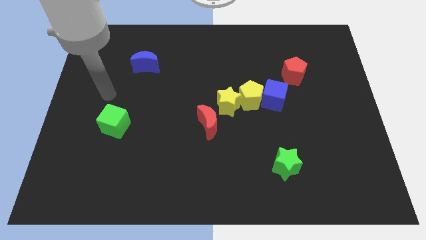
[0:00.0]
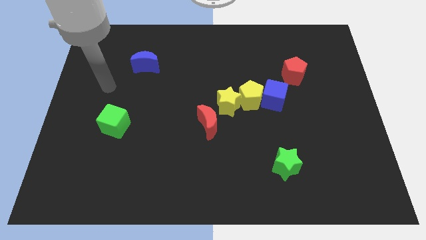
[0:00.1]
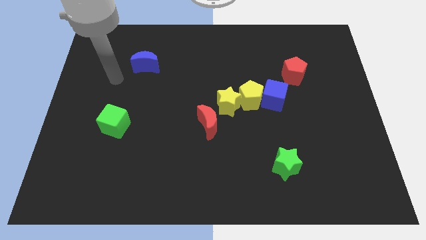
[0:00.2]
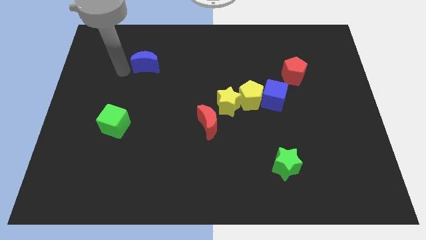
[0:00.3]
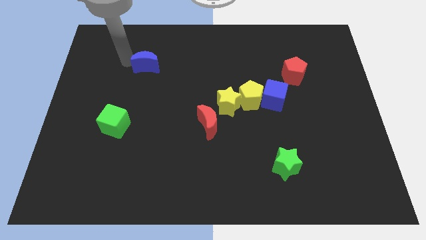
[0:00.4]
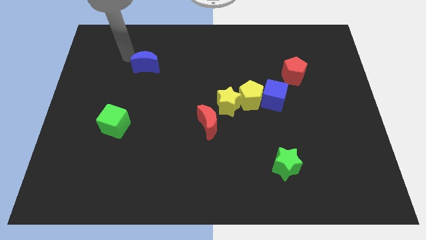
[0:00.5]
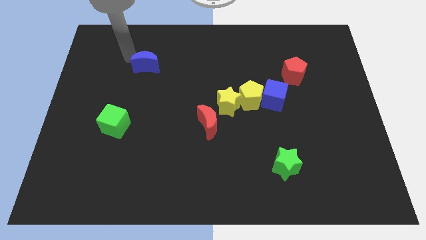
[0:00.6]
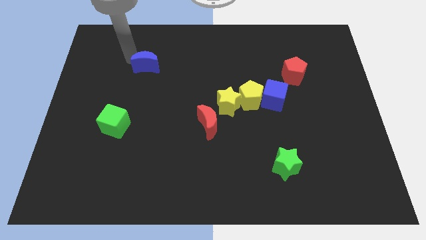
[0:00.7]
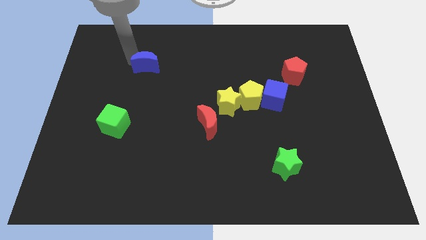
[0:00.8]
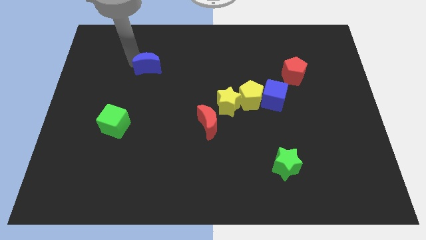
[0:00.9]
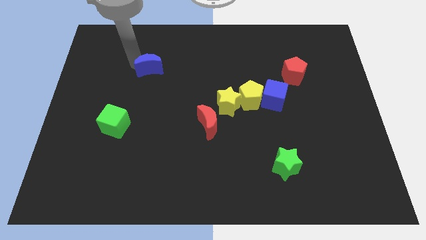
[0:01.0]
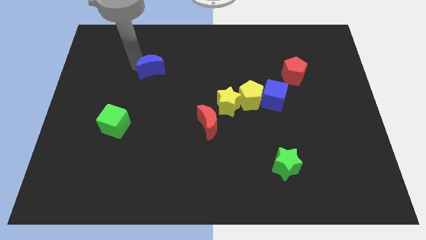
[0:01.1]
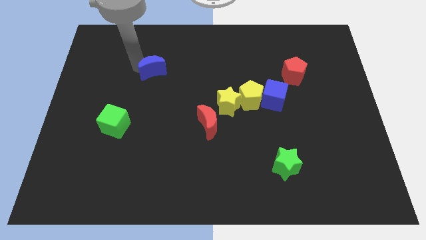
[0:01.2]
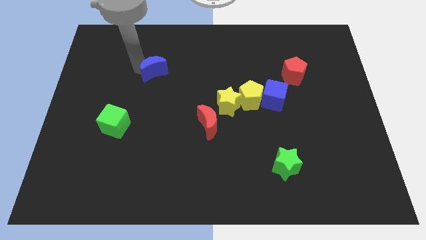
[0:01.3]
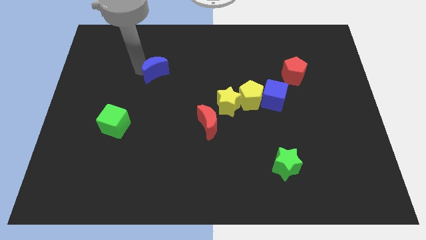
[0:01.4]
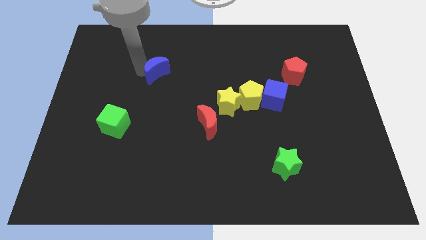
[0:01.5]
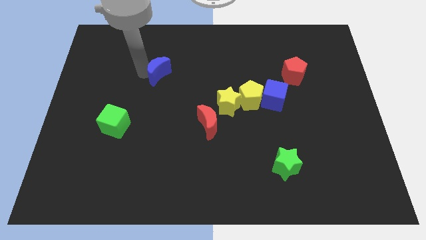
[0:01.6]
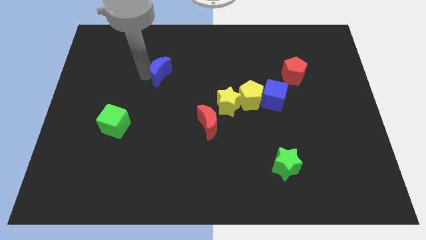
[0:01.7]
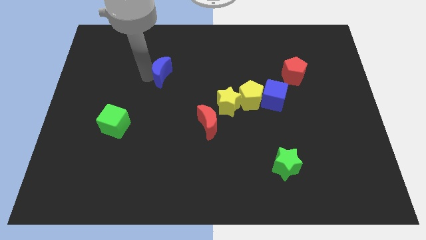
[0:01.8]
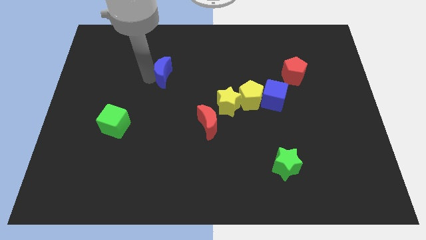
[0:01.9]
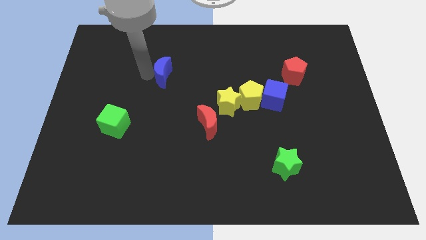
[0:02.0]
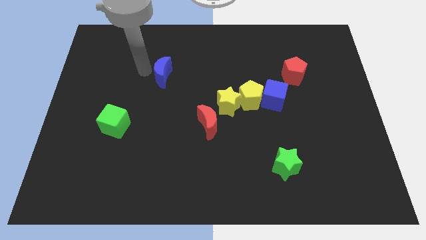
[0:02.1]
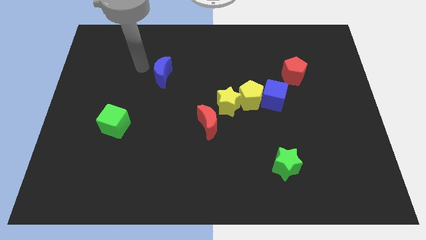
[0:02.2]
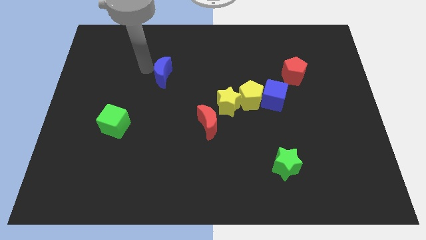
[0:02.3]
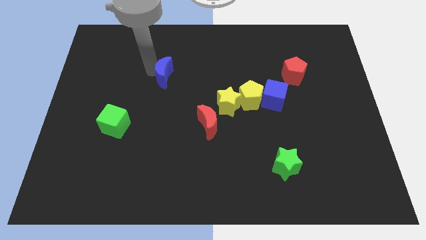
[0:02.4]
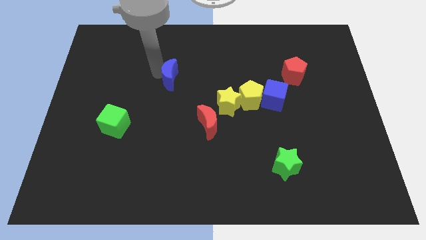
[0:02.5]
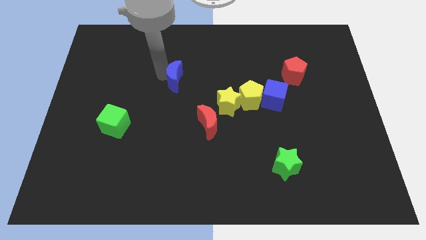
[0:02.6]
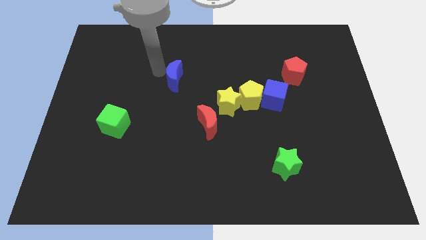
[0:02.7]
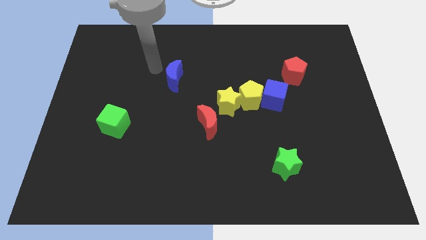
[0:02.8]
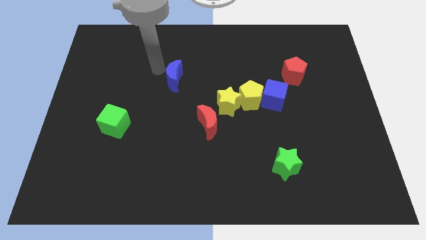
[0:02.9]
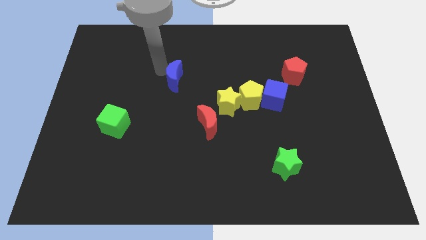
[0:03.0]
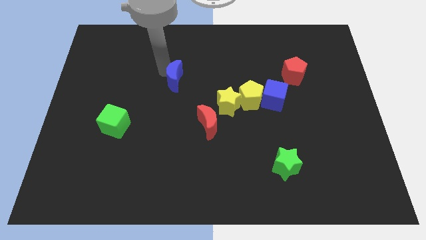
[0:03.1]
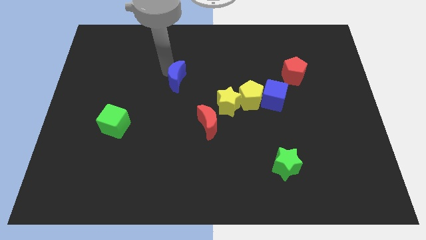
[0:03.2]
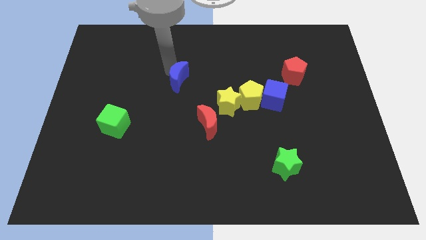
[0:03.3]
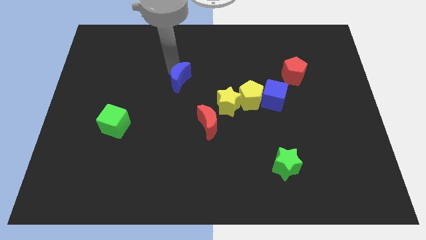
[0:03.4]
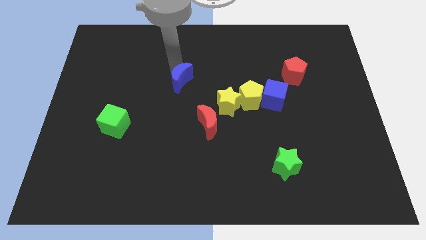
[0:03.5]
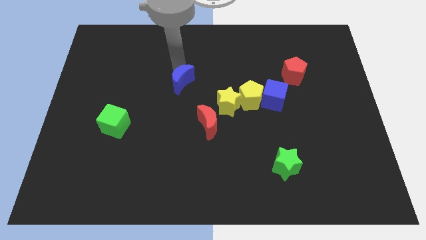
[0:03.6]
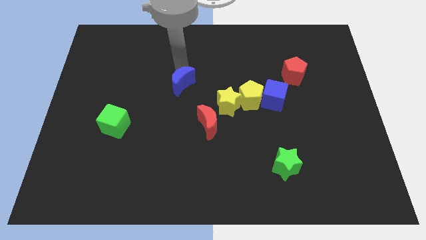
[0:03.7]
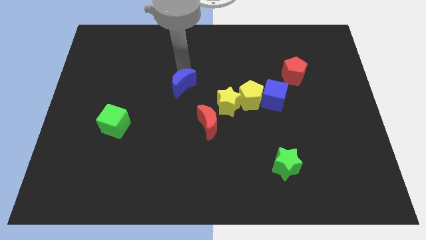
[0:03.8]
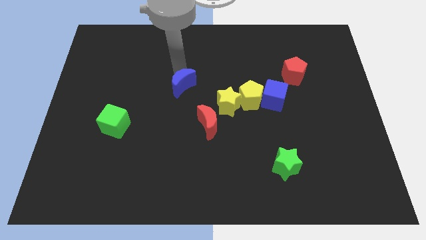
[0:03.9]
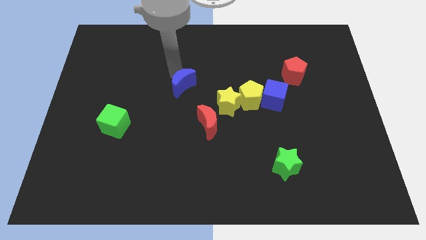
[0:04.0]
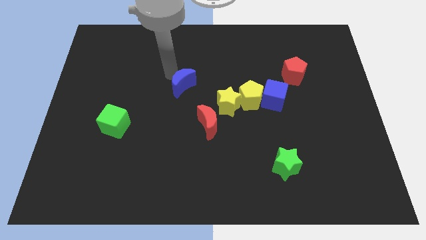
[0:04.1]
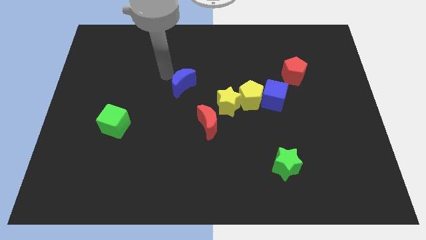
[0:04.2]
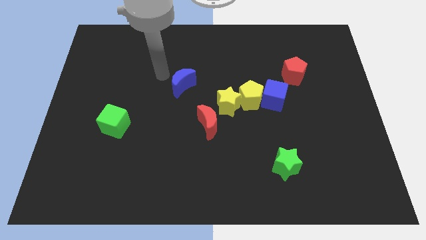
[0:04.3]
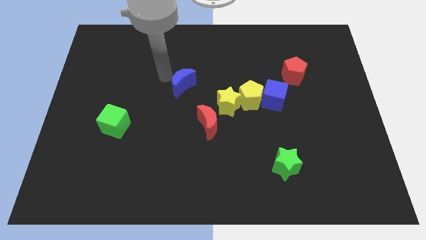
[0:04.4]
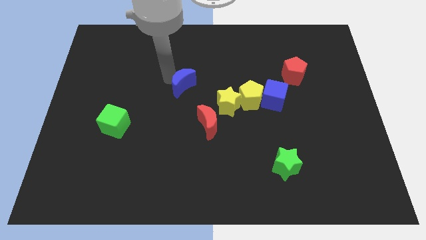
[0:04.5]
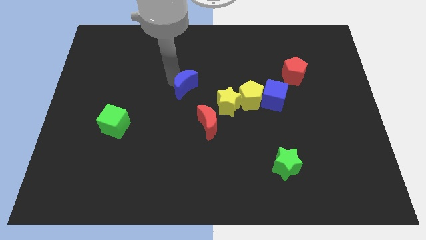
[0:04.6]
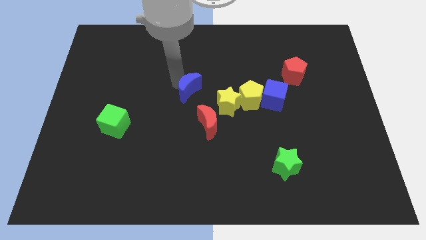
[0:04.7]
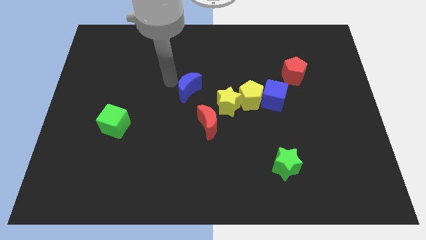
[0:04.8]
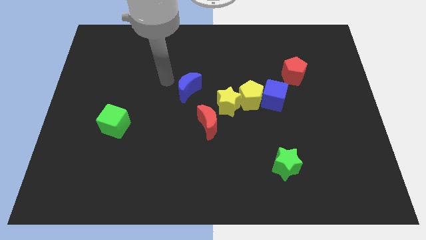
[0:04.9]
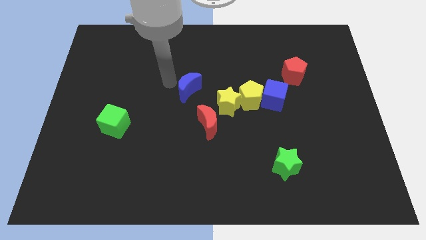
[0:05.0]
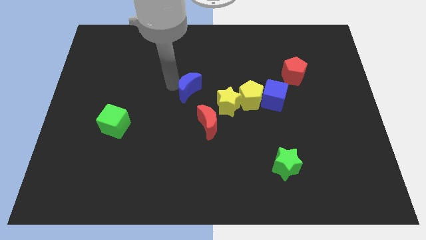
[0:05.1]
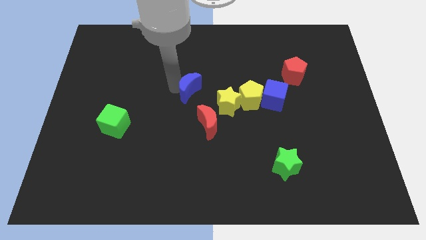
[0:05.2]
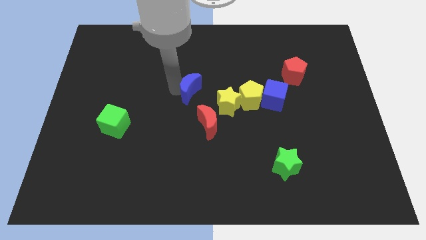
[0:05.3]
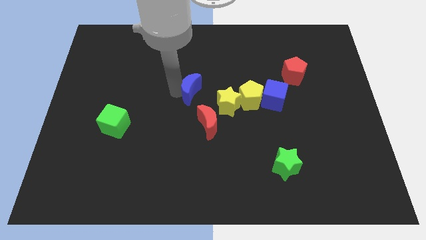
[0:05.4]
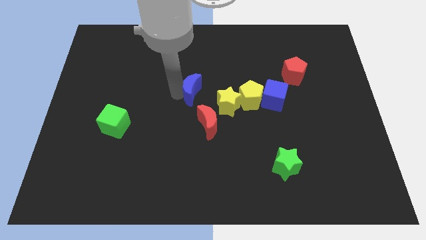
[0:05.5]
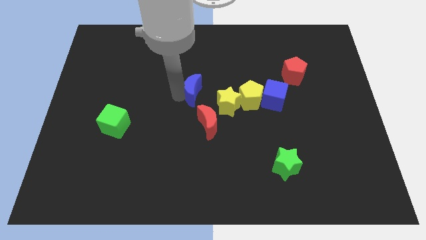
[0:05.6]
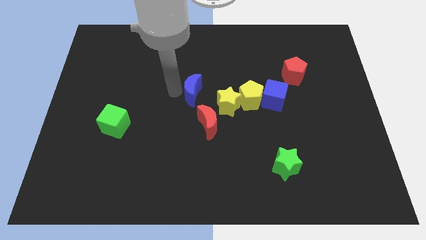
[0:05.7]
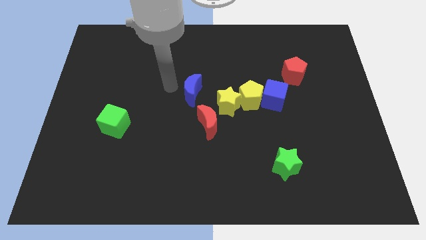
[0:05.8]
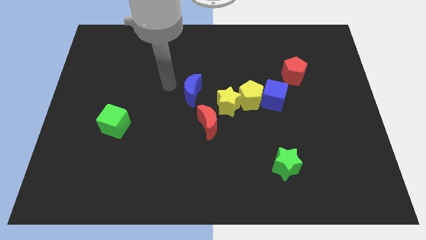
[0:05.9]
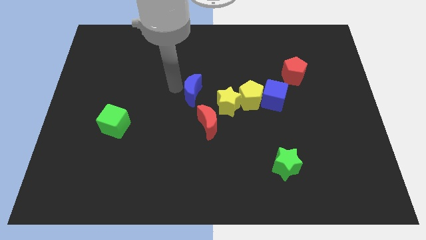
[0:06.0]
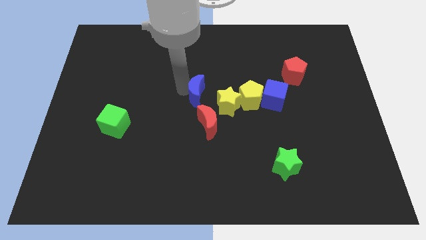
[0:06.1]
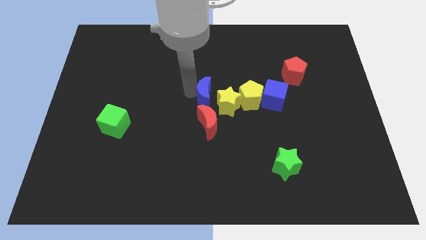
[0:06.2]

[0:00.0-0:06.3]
push the blue moon to the yellow star

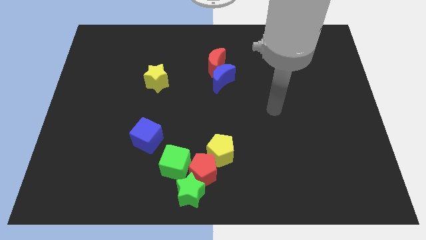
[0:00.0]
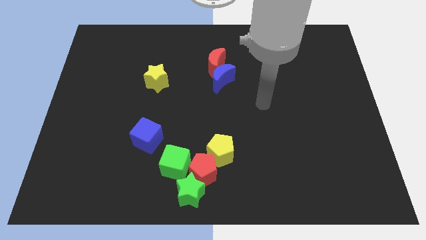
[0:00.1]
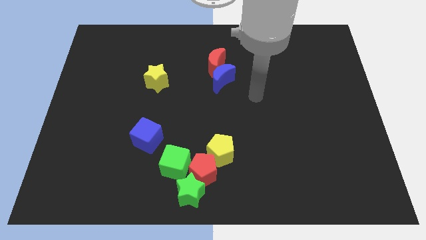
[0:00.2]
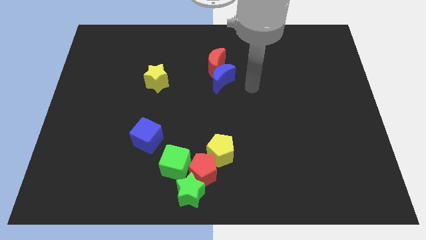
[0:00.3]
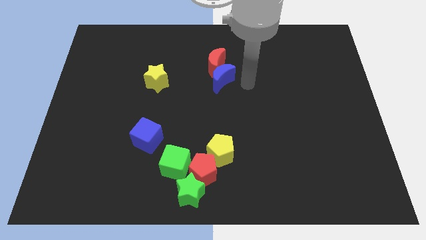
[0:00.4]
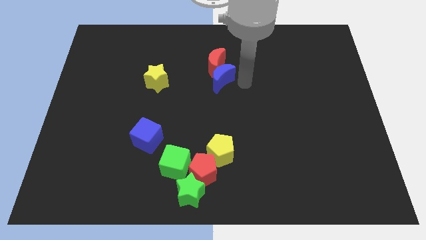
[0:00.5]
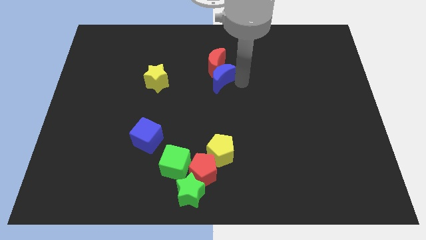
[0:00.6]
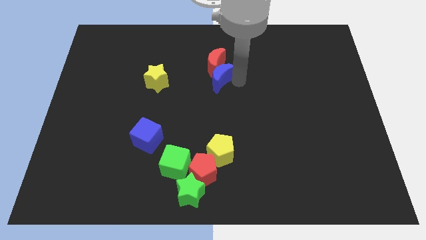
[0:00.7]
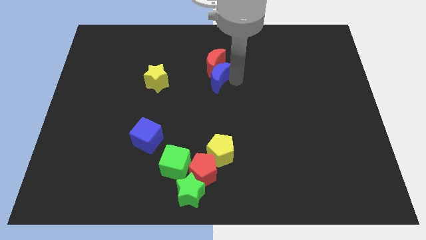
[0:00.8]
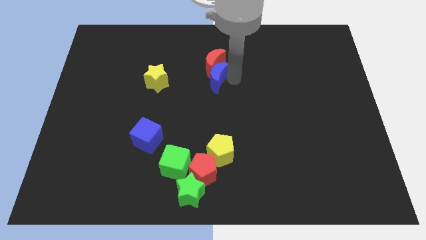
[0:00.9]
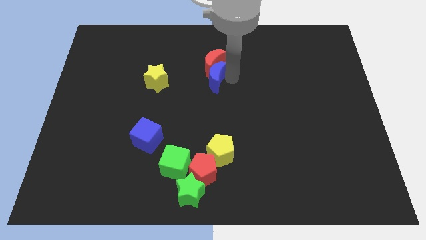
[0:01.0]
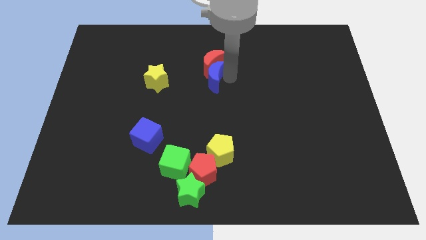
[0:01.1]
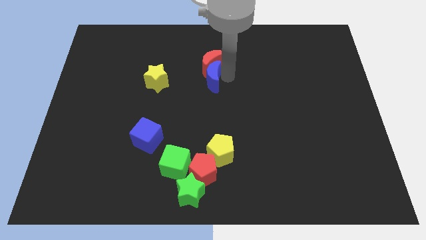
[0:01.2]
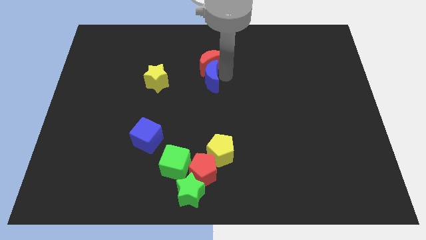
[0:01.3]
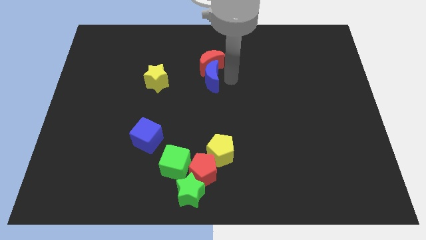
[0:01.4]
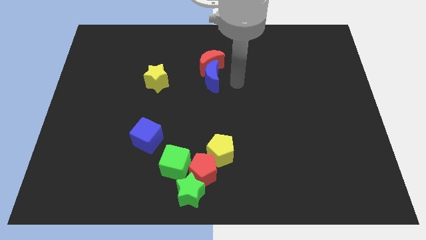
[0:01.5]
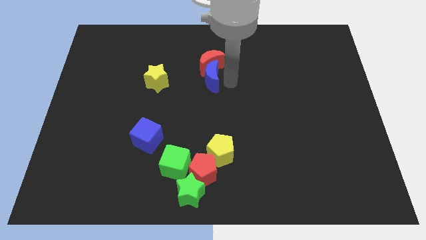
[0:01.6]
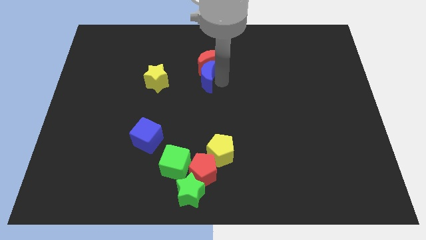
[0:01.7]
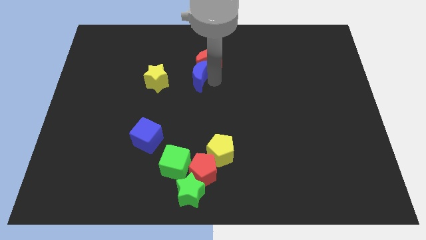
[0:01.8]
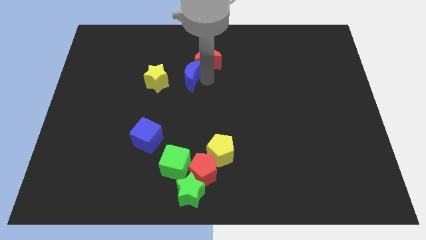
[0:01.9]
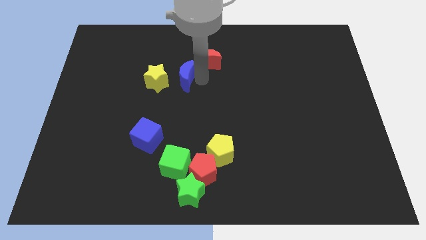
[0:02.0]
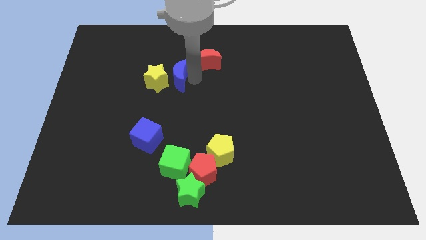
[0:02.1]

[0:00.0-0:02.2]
slide the blue moon to the yellow star
